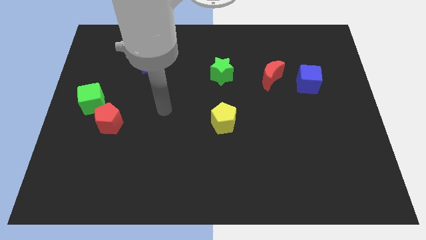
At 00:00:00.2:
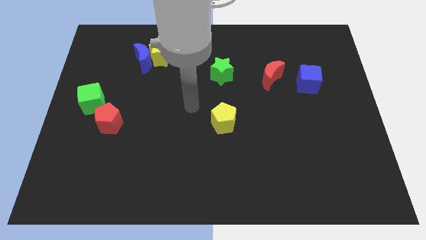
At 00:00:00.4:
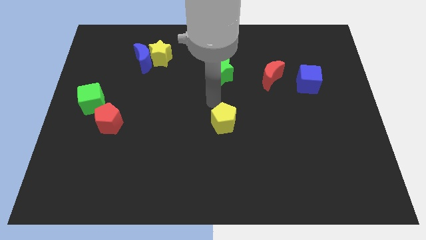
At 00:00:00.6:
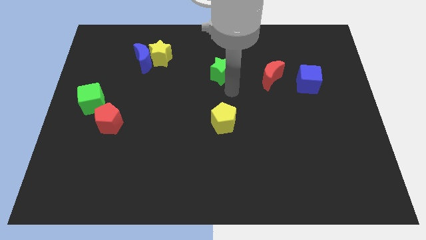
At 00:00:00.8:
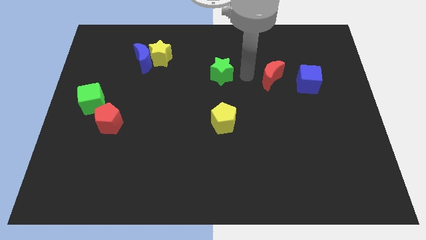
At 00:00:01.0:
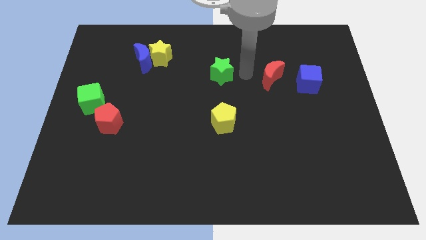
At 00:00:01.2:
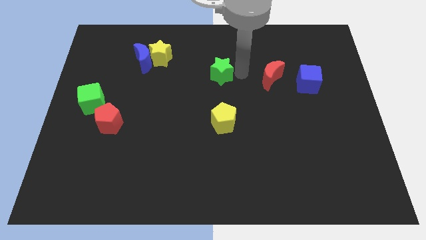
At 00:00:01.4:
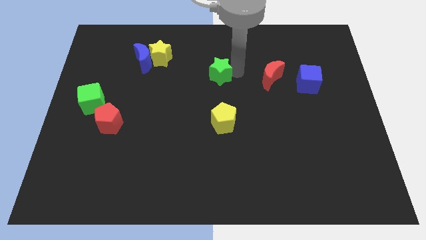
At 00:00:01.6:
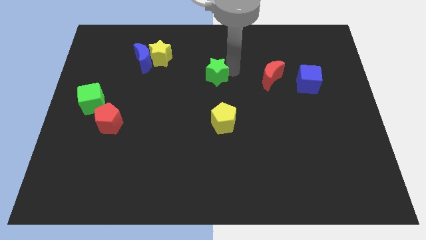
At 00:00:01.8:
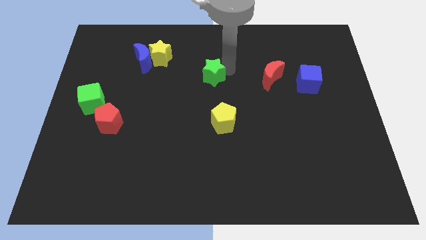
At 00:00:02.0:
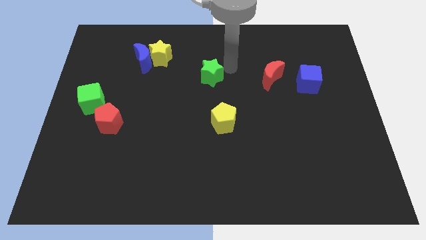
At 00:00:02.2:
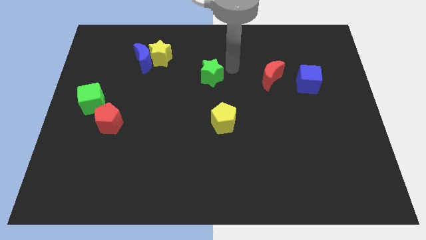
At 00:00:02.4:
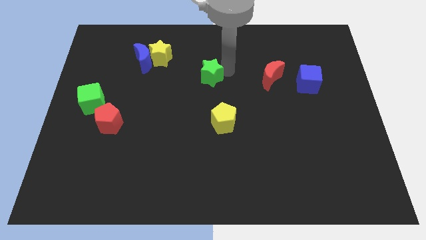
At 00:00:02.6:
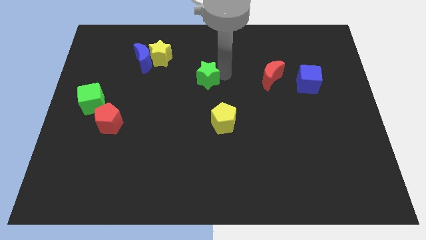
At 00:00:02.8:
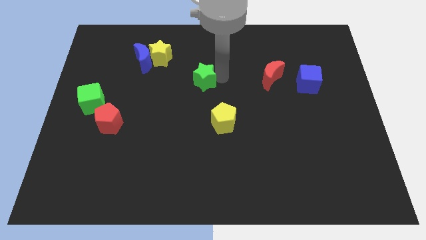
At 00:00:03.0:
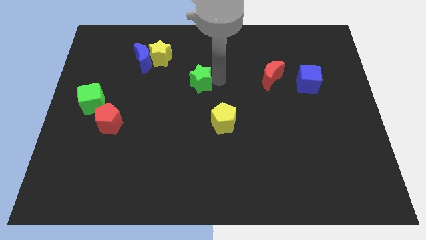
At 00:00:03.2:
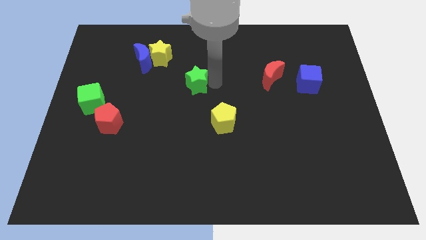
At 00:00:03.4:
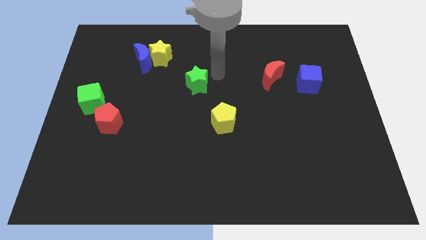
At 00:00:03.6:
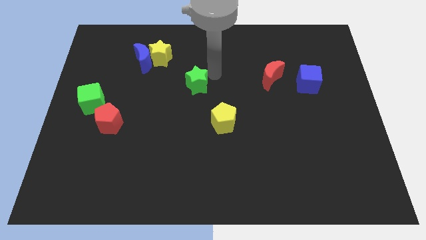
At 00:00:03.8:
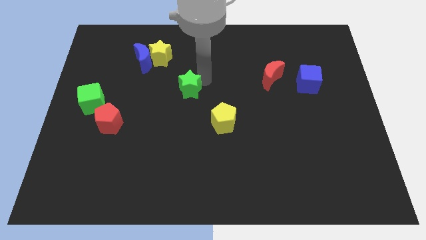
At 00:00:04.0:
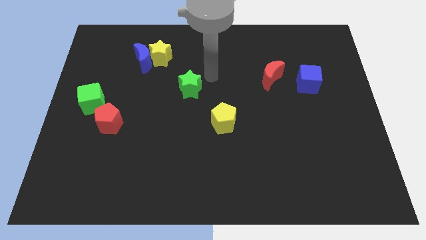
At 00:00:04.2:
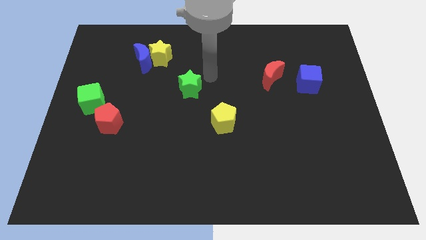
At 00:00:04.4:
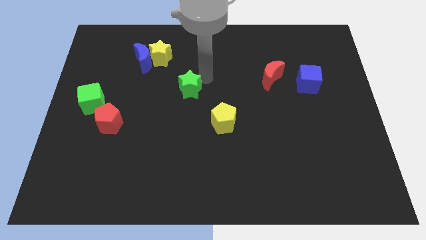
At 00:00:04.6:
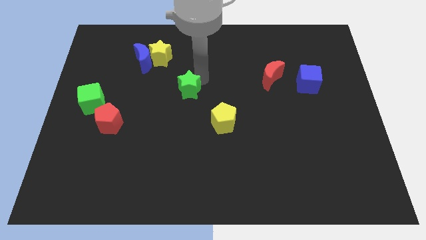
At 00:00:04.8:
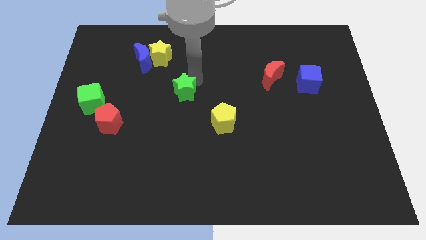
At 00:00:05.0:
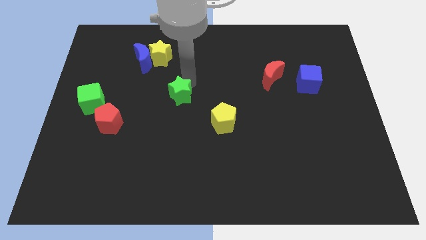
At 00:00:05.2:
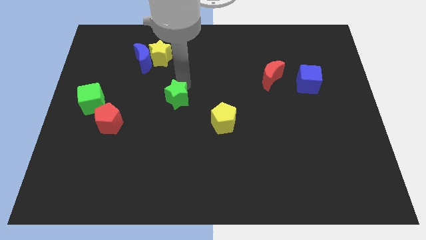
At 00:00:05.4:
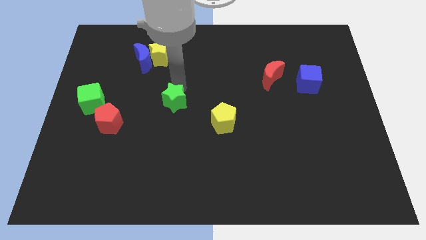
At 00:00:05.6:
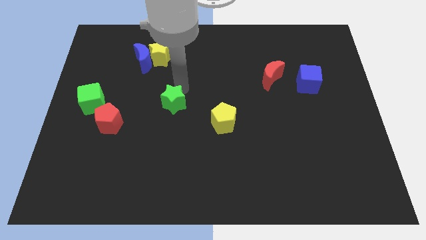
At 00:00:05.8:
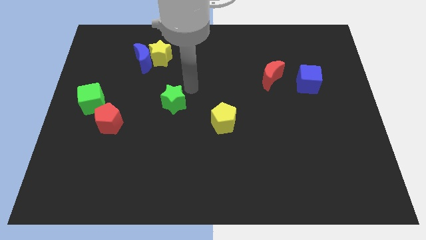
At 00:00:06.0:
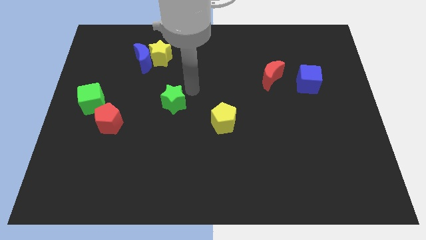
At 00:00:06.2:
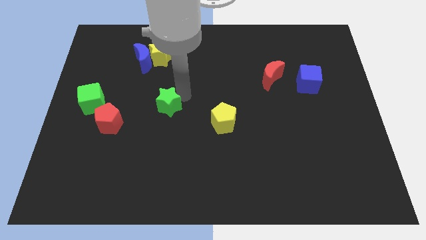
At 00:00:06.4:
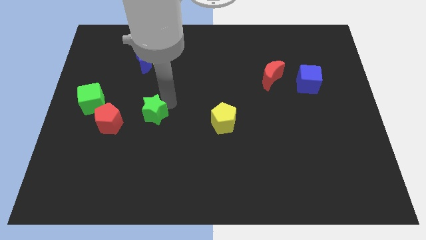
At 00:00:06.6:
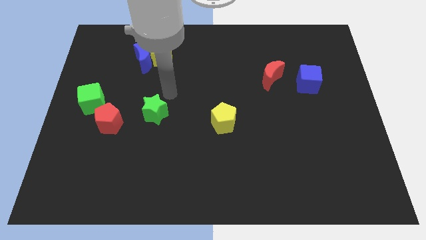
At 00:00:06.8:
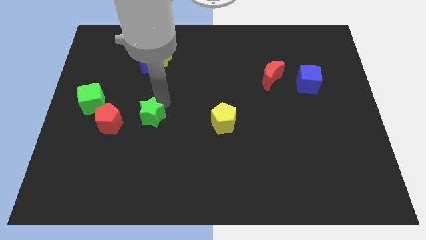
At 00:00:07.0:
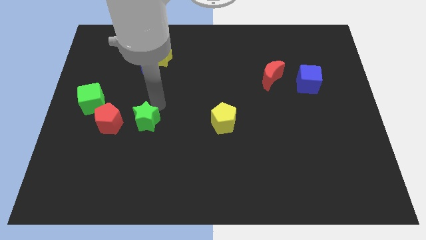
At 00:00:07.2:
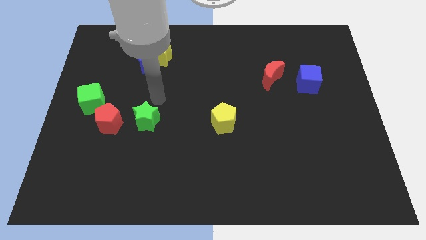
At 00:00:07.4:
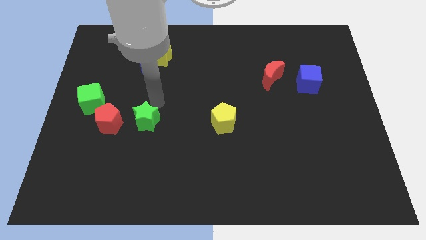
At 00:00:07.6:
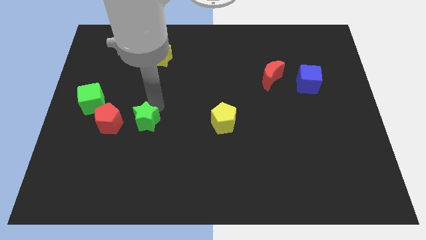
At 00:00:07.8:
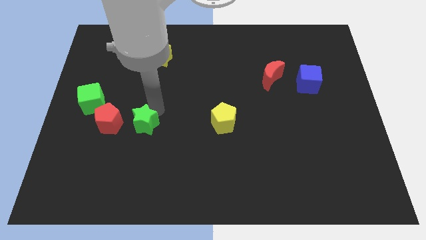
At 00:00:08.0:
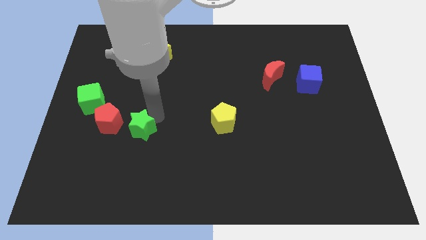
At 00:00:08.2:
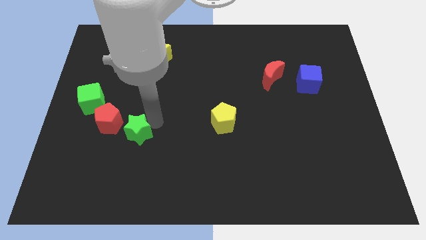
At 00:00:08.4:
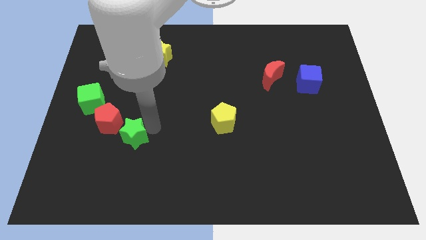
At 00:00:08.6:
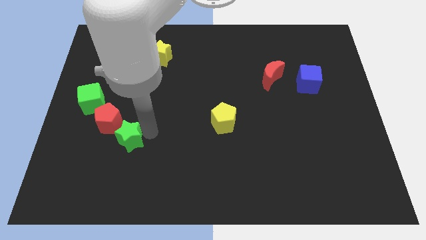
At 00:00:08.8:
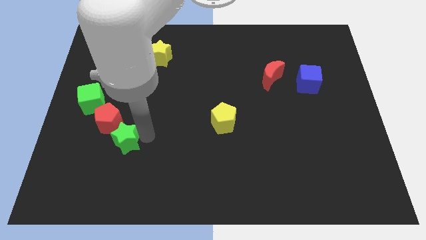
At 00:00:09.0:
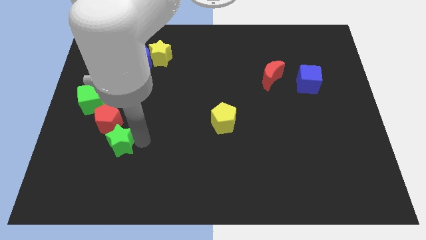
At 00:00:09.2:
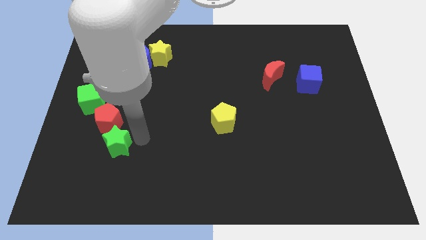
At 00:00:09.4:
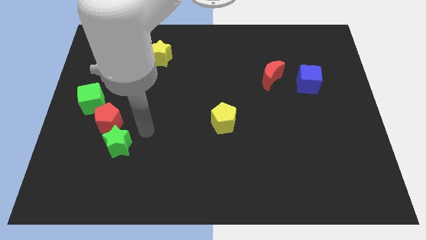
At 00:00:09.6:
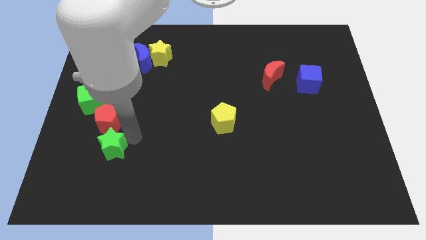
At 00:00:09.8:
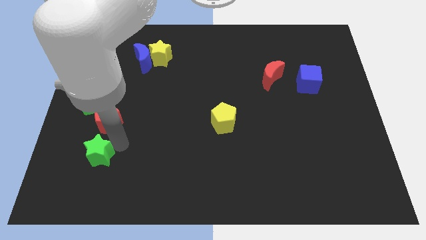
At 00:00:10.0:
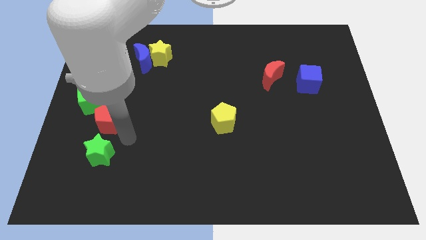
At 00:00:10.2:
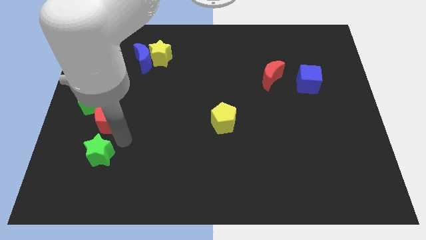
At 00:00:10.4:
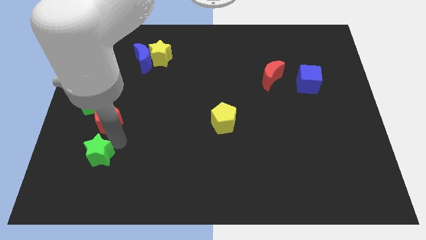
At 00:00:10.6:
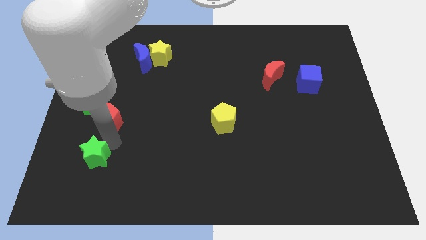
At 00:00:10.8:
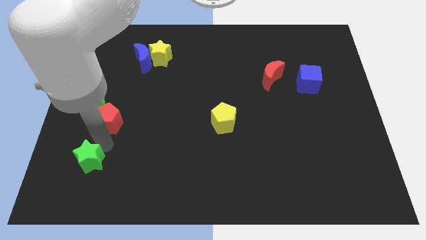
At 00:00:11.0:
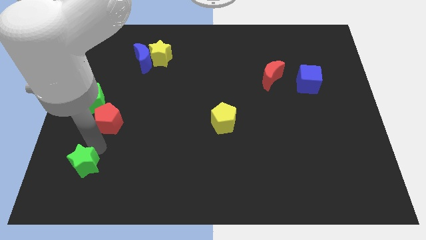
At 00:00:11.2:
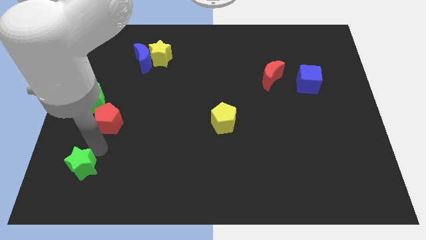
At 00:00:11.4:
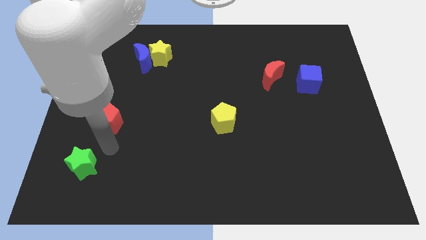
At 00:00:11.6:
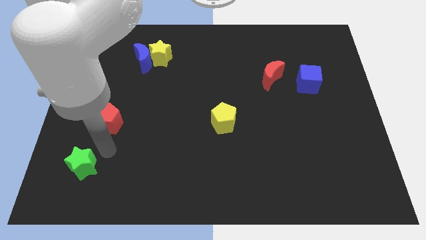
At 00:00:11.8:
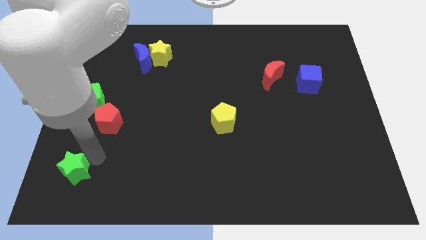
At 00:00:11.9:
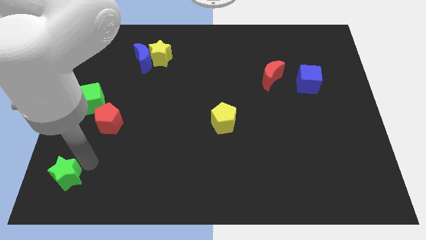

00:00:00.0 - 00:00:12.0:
put the green star to the bottom left
